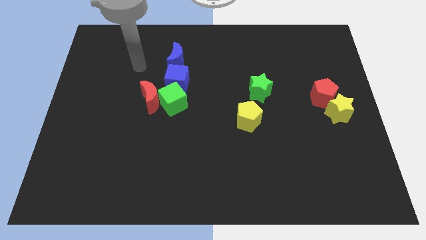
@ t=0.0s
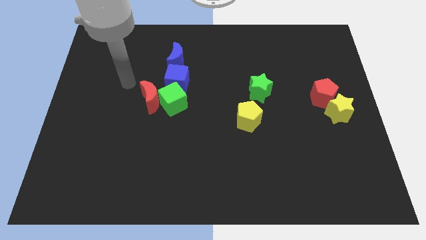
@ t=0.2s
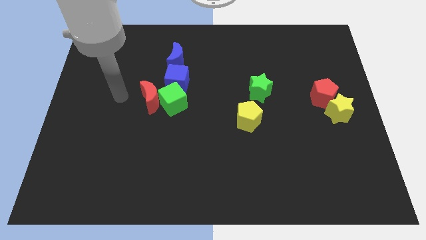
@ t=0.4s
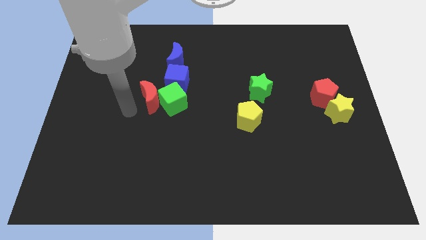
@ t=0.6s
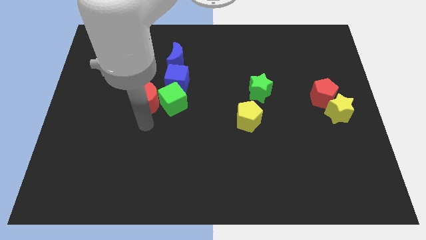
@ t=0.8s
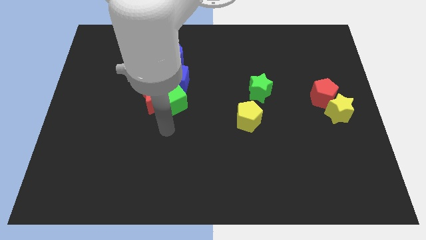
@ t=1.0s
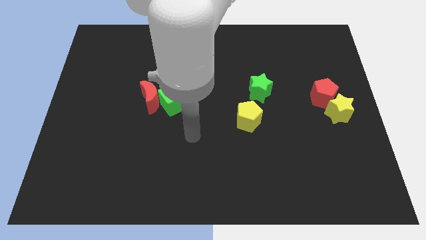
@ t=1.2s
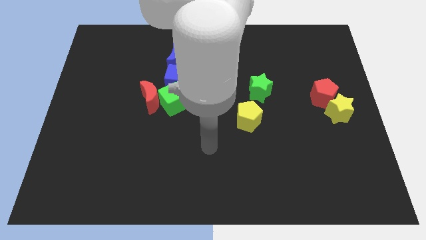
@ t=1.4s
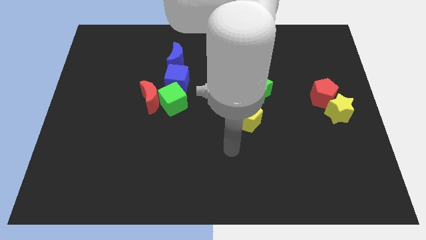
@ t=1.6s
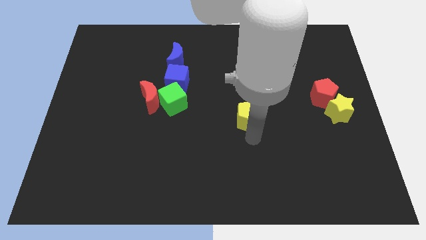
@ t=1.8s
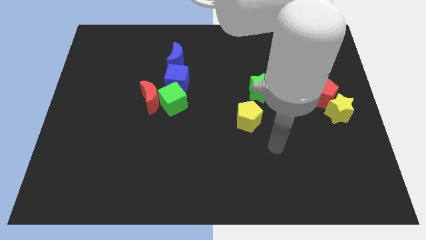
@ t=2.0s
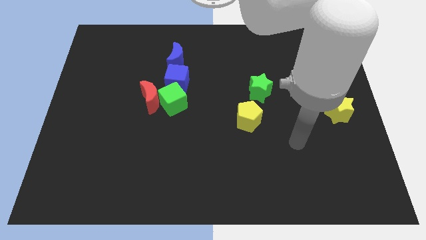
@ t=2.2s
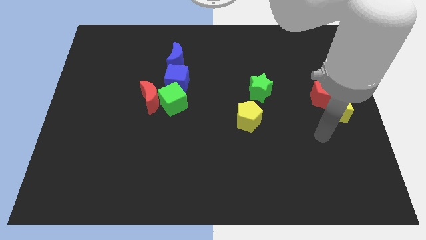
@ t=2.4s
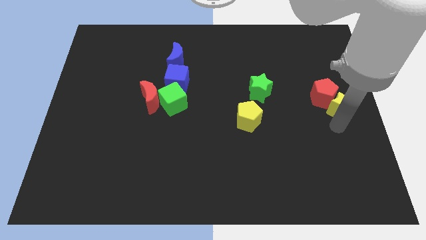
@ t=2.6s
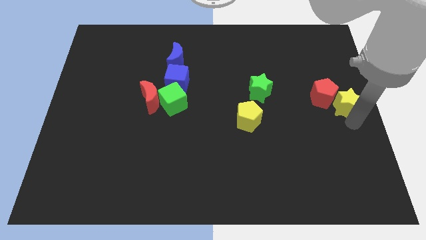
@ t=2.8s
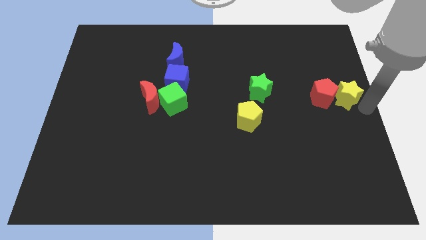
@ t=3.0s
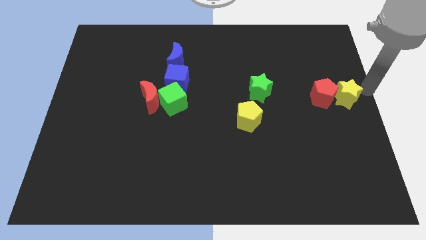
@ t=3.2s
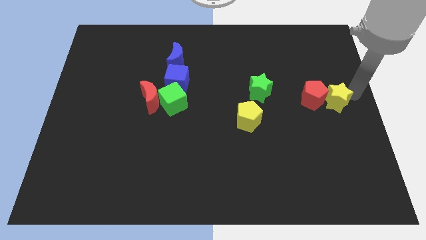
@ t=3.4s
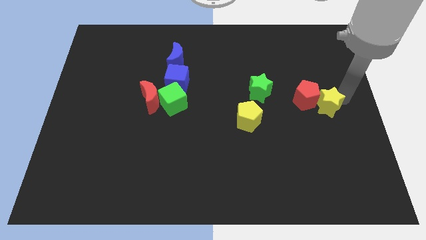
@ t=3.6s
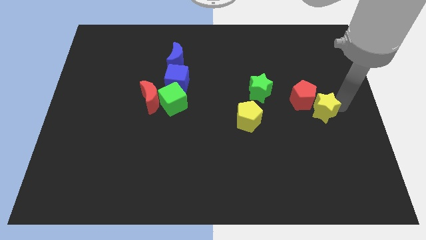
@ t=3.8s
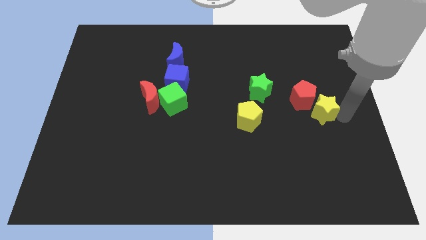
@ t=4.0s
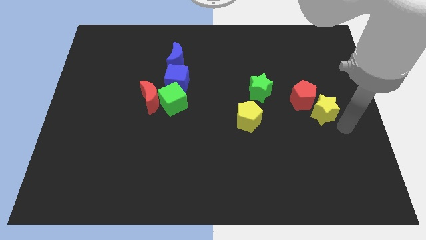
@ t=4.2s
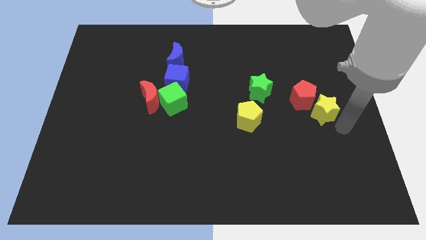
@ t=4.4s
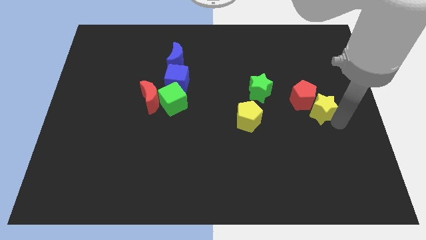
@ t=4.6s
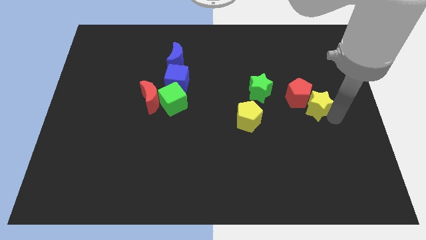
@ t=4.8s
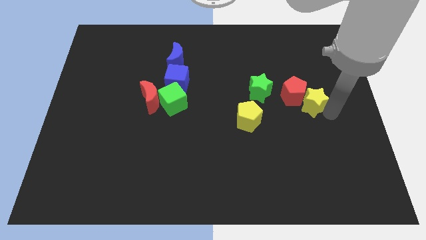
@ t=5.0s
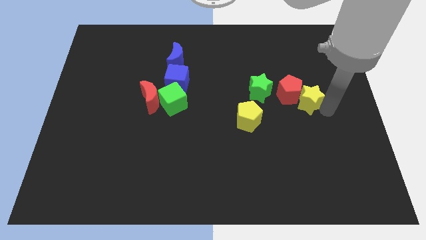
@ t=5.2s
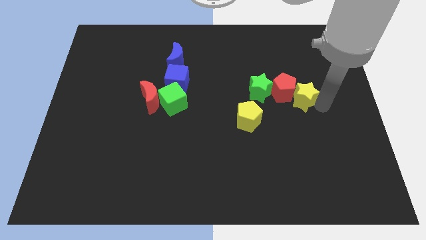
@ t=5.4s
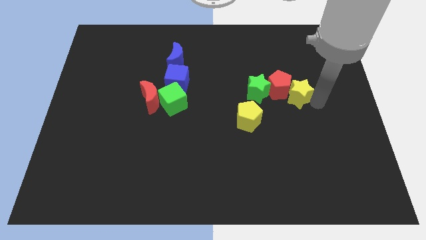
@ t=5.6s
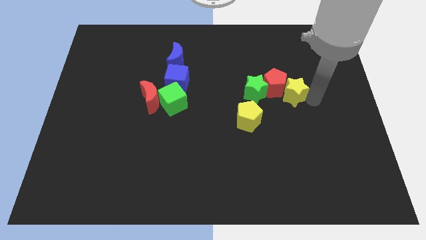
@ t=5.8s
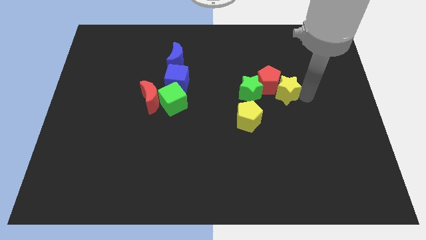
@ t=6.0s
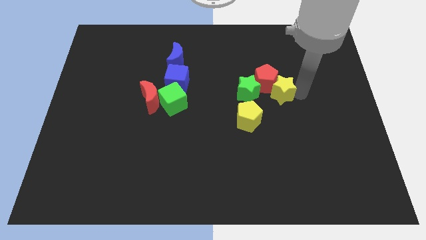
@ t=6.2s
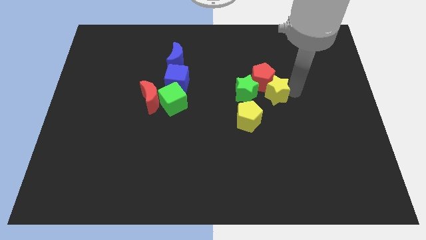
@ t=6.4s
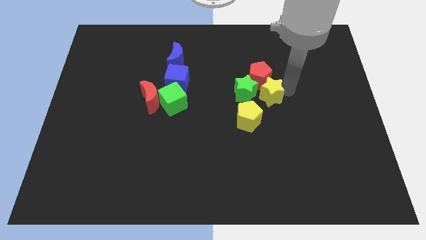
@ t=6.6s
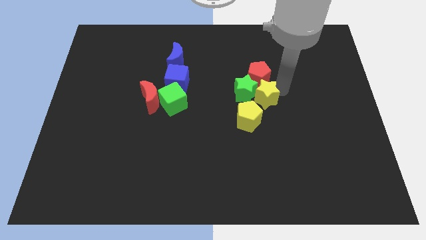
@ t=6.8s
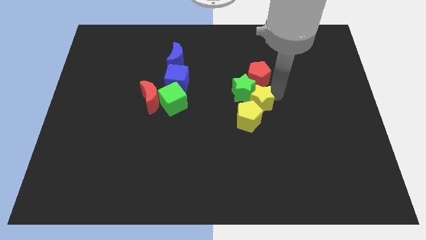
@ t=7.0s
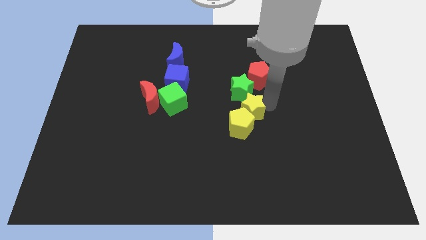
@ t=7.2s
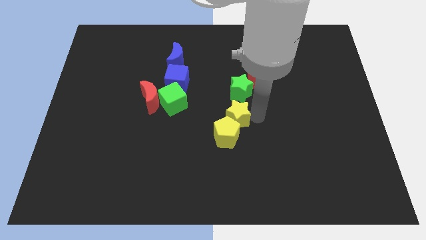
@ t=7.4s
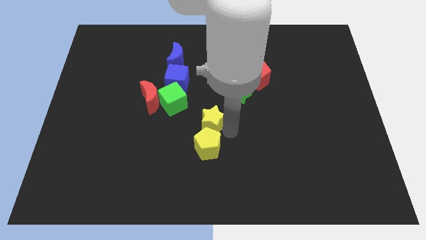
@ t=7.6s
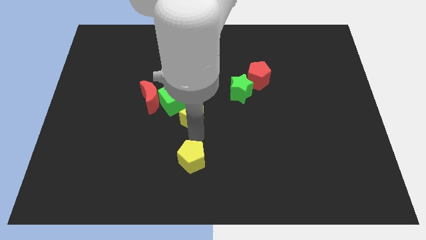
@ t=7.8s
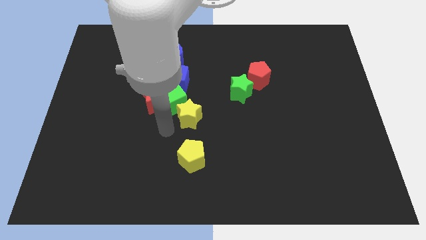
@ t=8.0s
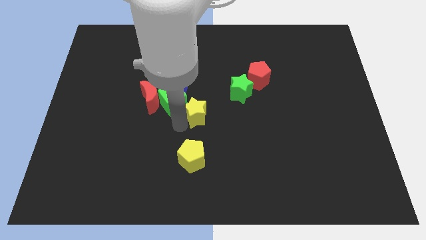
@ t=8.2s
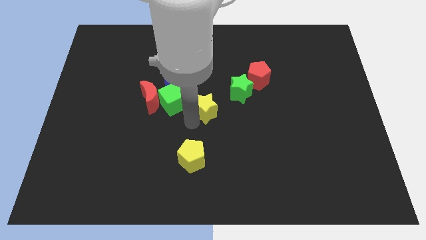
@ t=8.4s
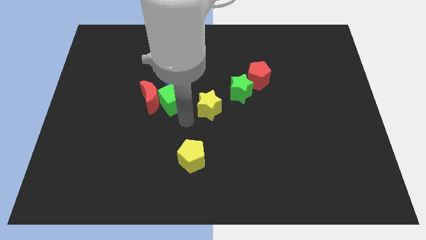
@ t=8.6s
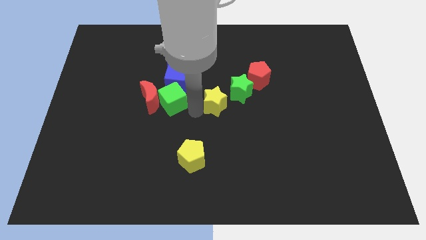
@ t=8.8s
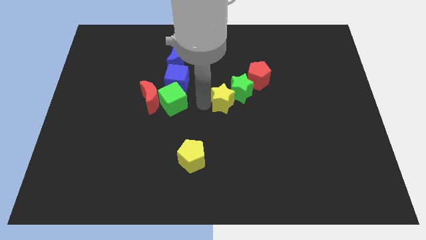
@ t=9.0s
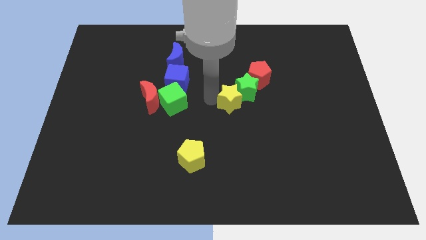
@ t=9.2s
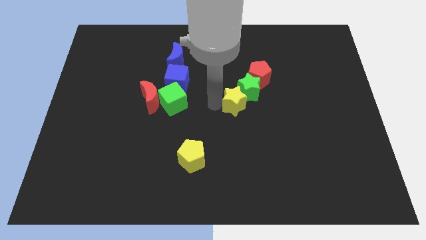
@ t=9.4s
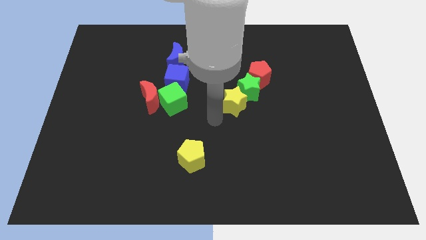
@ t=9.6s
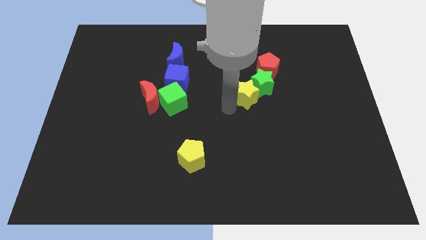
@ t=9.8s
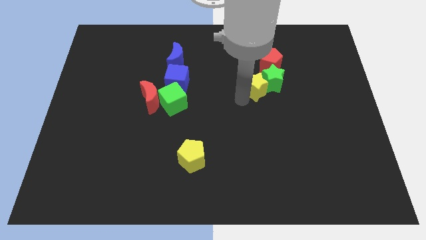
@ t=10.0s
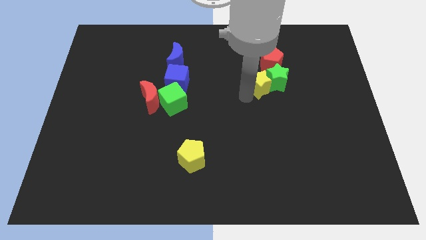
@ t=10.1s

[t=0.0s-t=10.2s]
move the yellow star to the top left of the green star

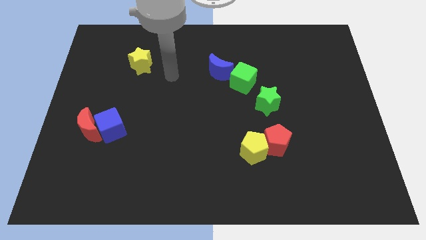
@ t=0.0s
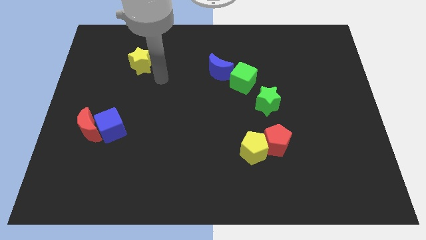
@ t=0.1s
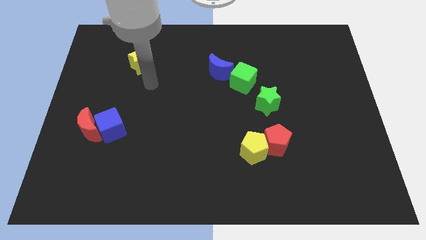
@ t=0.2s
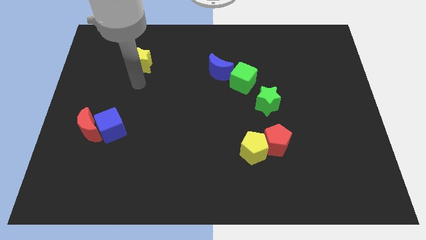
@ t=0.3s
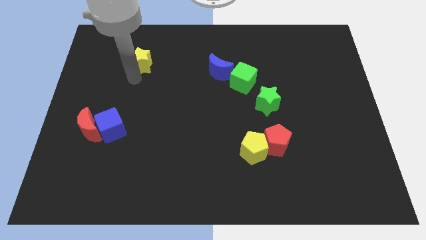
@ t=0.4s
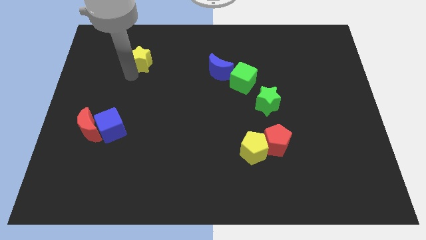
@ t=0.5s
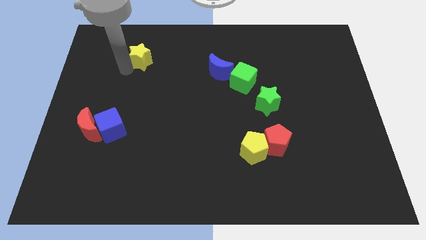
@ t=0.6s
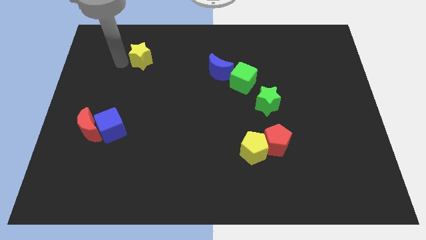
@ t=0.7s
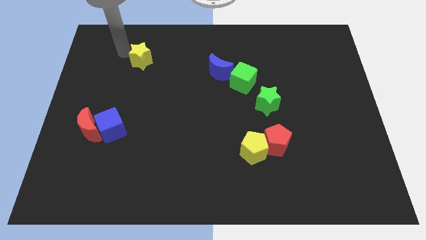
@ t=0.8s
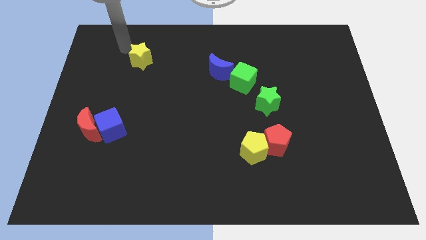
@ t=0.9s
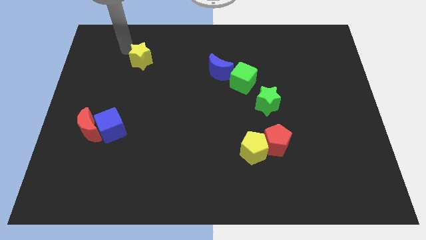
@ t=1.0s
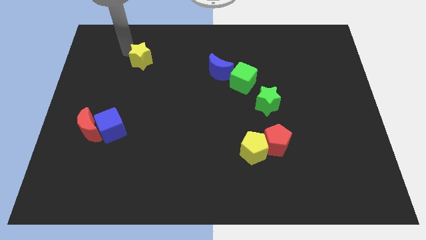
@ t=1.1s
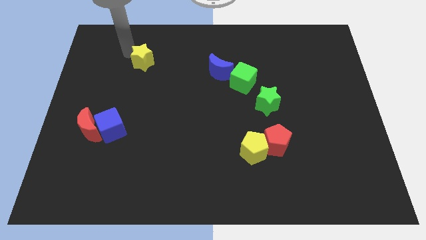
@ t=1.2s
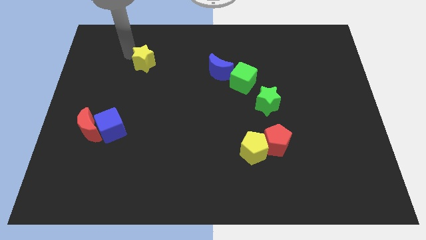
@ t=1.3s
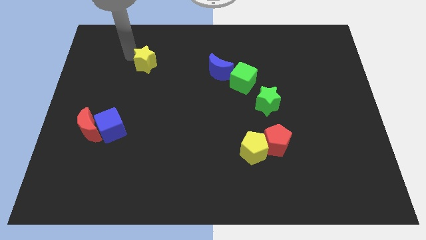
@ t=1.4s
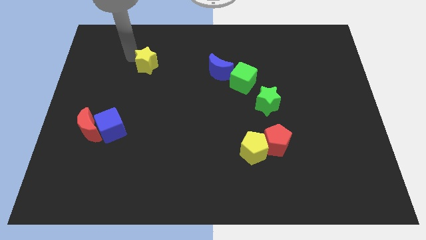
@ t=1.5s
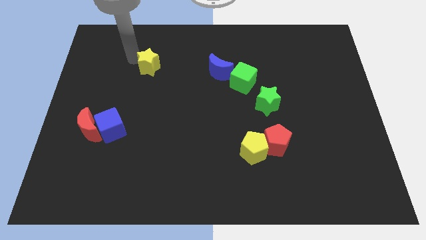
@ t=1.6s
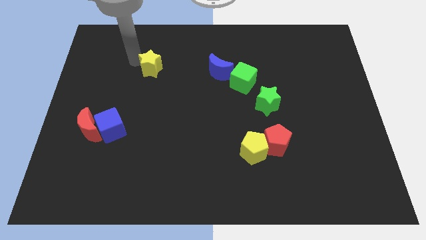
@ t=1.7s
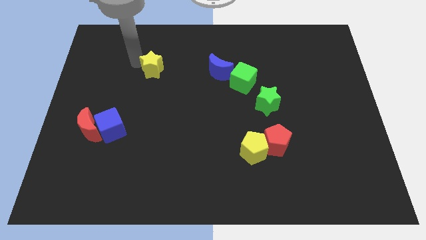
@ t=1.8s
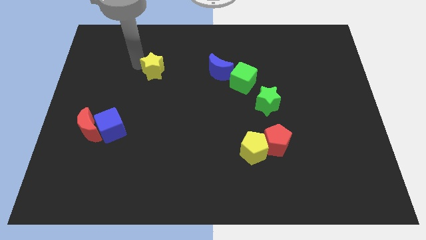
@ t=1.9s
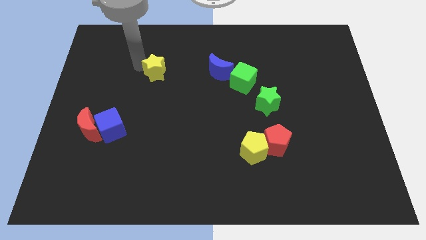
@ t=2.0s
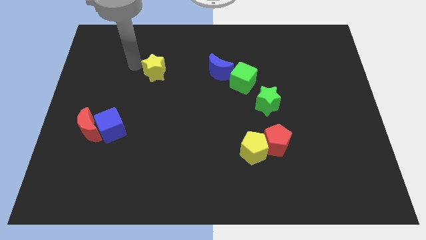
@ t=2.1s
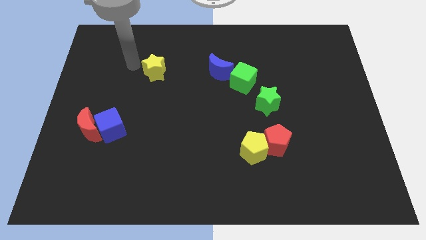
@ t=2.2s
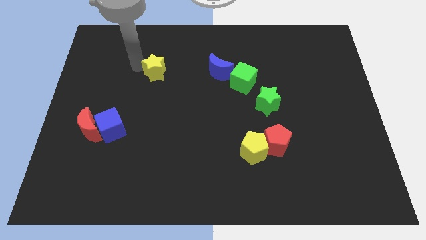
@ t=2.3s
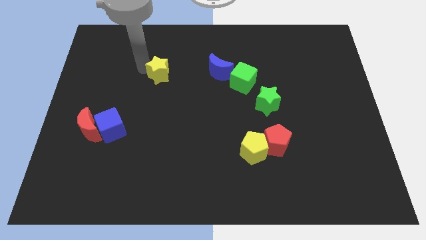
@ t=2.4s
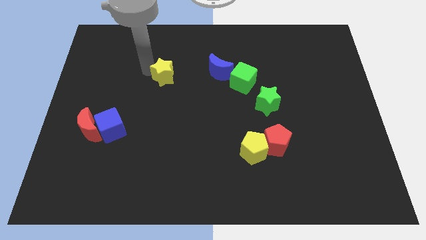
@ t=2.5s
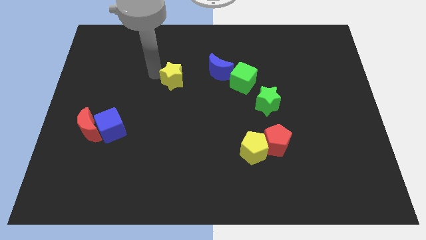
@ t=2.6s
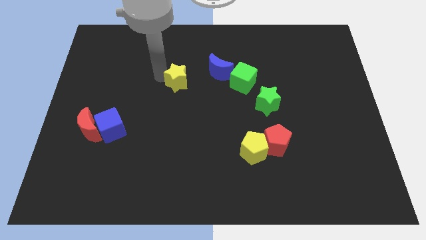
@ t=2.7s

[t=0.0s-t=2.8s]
push the yellow star just left of the green cube

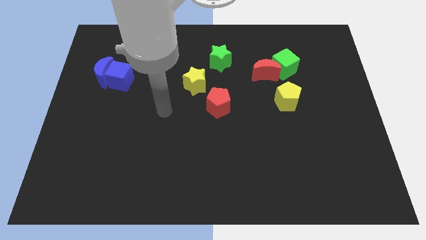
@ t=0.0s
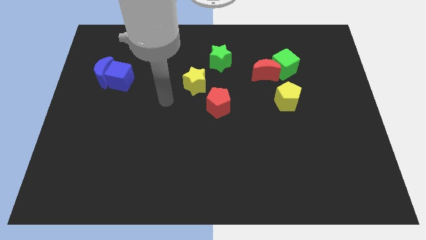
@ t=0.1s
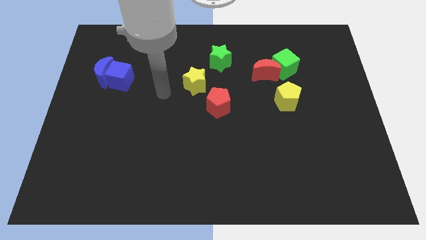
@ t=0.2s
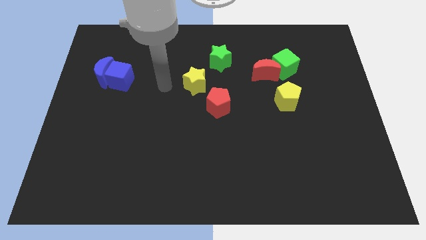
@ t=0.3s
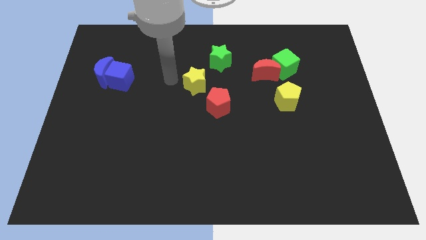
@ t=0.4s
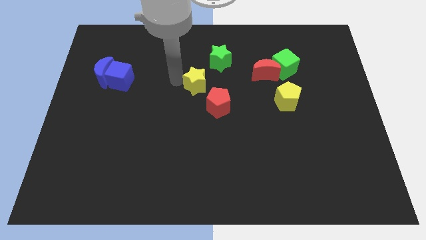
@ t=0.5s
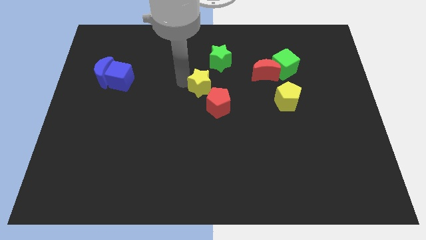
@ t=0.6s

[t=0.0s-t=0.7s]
move the yellow star to the bottom side of the green star
